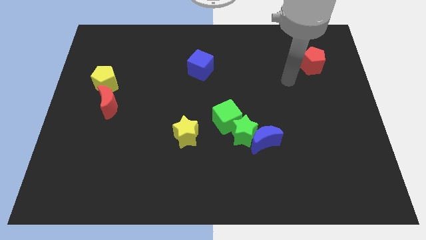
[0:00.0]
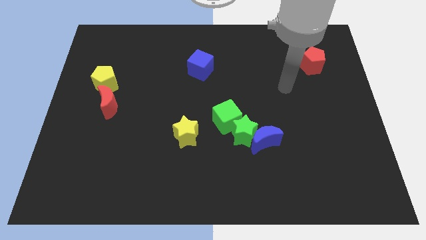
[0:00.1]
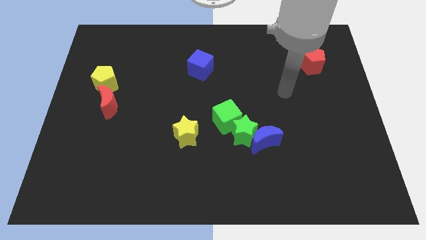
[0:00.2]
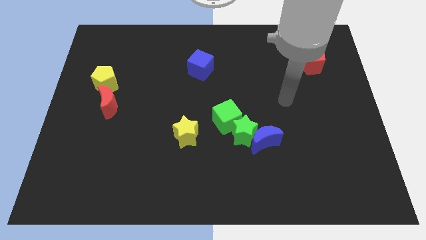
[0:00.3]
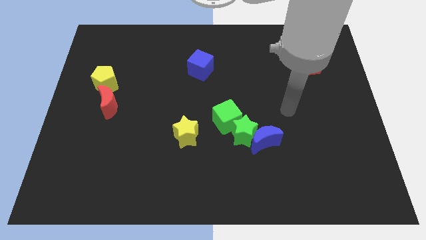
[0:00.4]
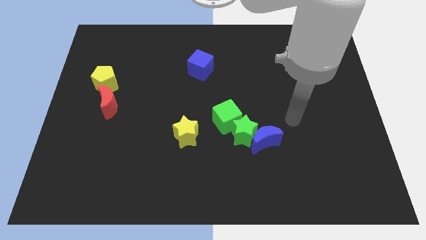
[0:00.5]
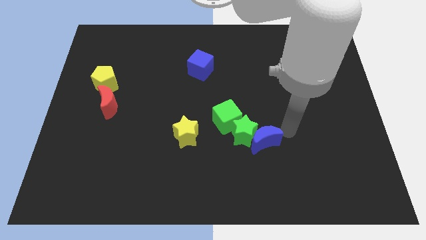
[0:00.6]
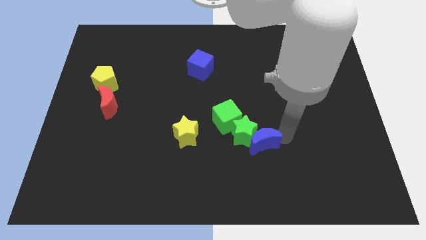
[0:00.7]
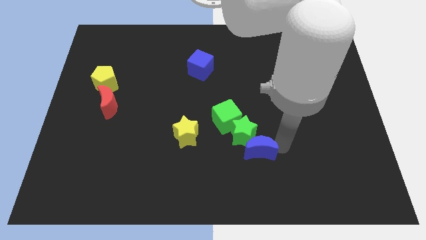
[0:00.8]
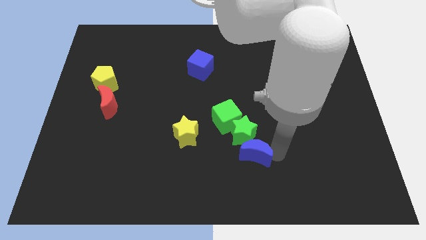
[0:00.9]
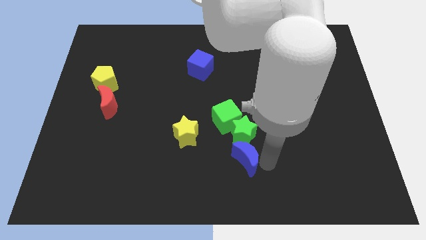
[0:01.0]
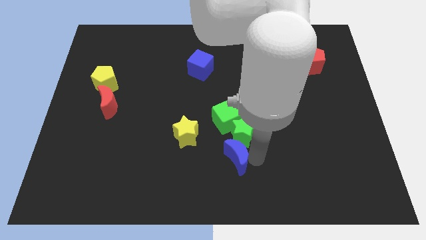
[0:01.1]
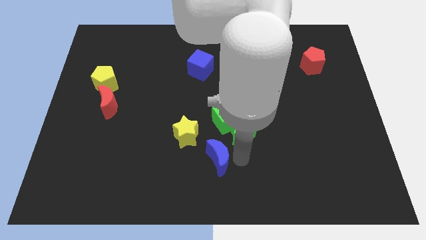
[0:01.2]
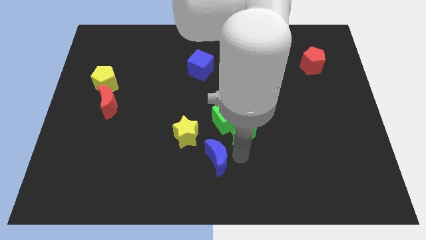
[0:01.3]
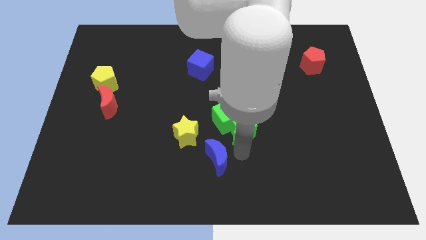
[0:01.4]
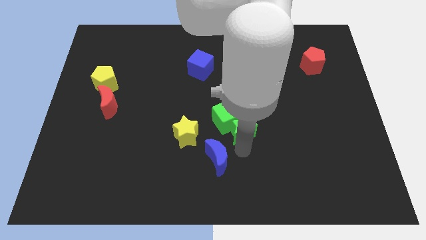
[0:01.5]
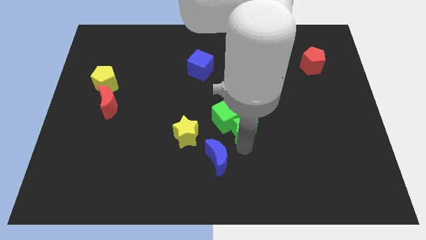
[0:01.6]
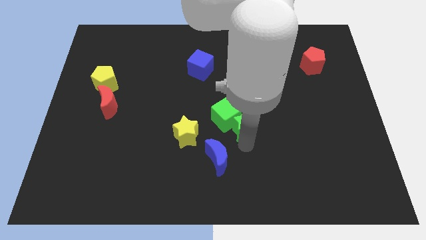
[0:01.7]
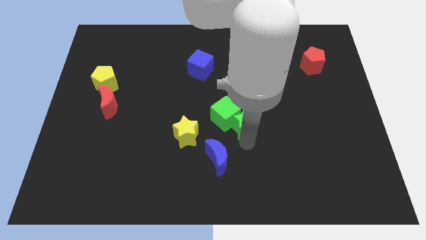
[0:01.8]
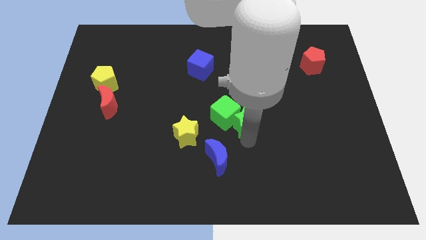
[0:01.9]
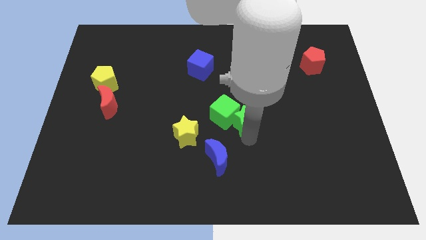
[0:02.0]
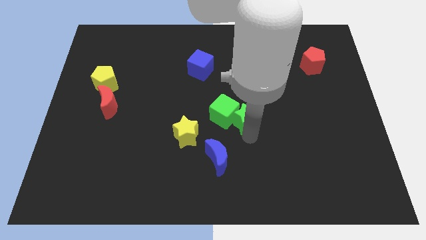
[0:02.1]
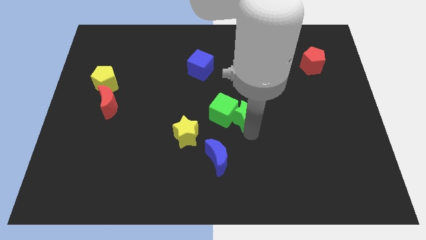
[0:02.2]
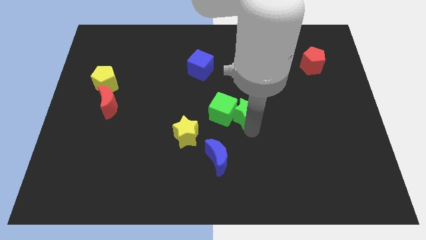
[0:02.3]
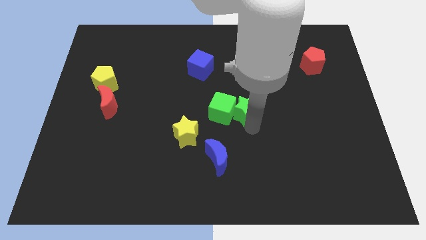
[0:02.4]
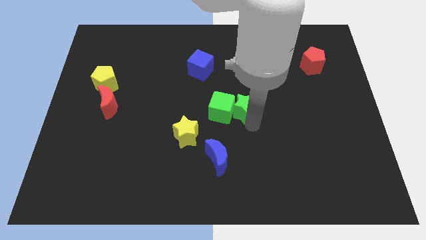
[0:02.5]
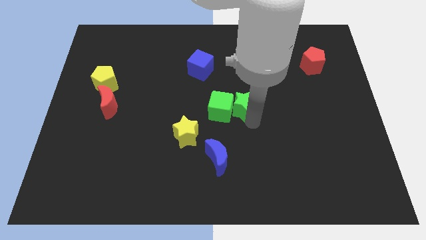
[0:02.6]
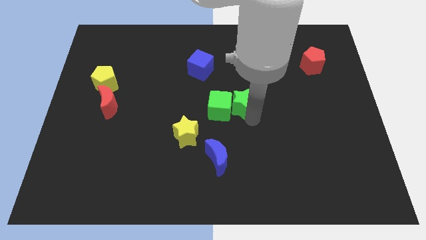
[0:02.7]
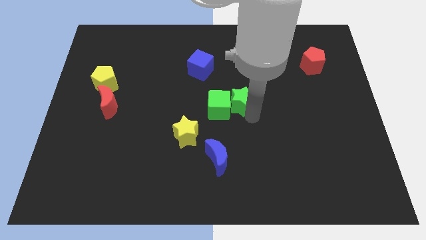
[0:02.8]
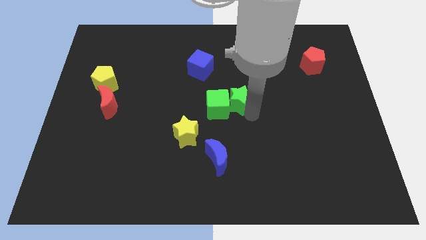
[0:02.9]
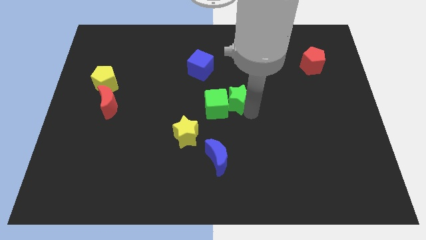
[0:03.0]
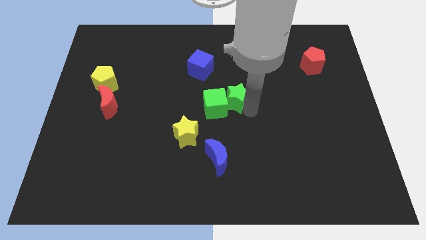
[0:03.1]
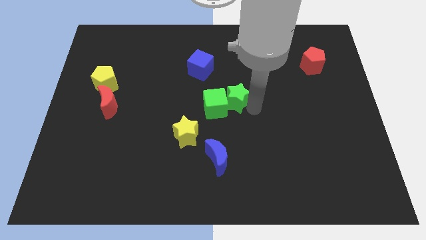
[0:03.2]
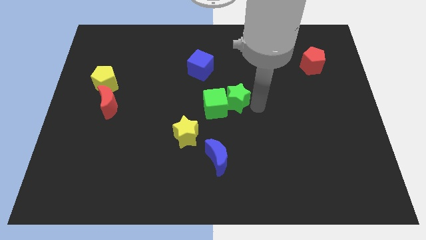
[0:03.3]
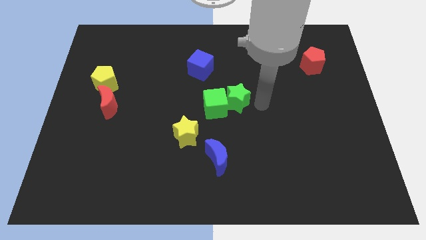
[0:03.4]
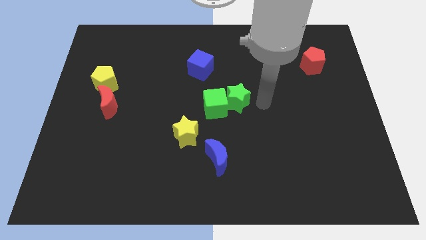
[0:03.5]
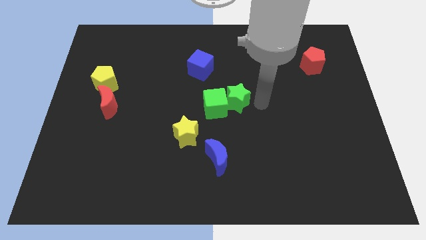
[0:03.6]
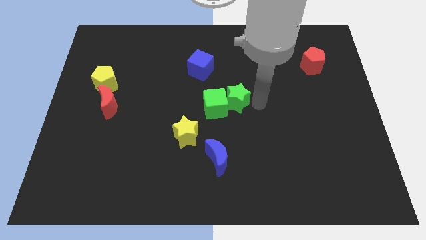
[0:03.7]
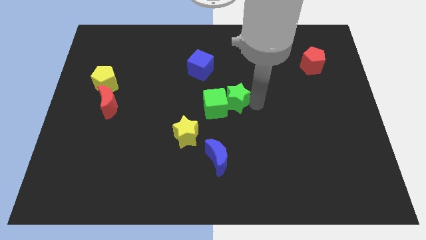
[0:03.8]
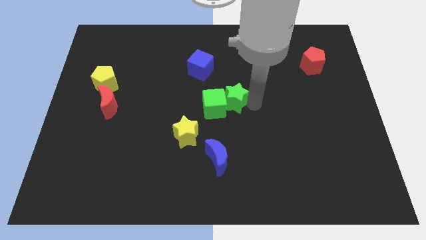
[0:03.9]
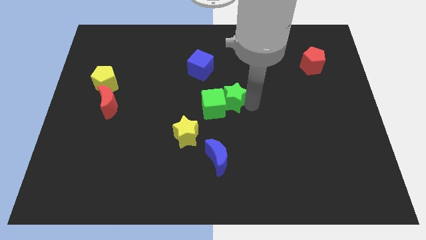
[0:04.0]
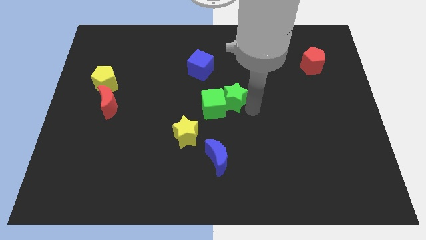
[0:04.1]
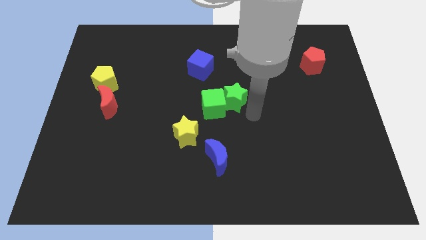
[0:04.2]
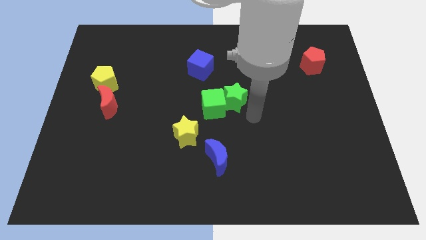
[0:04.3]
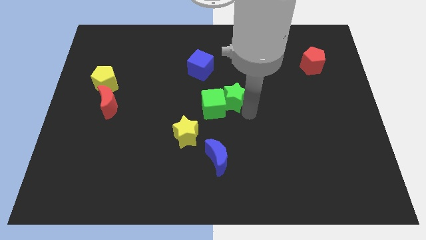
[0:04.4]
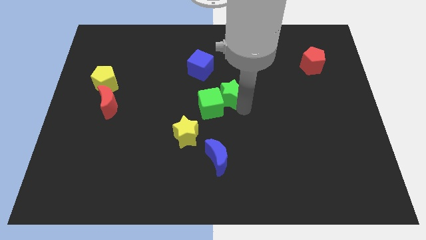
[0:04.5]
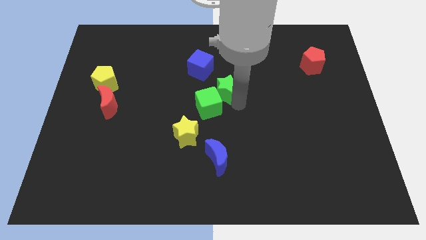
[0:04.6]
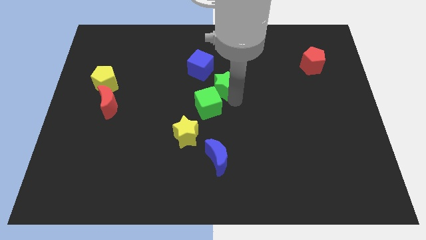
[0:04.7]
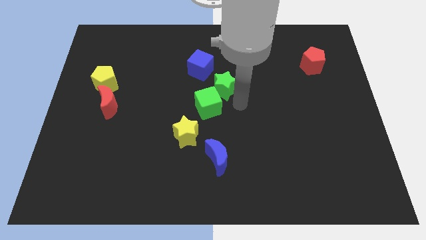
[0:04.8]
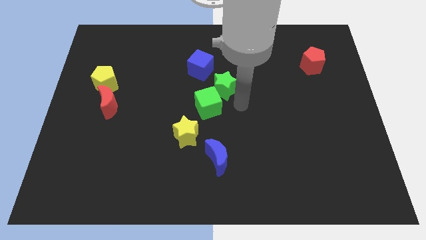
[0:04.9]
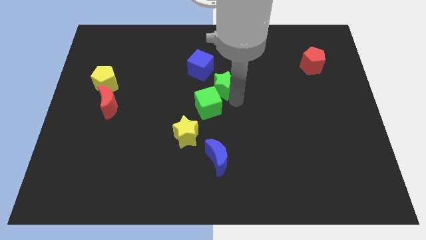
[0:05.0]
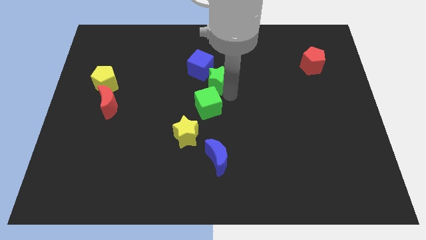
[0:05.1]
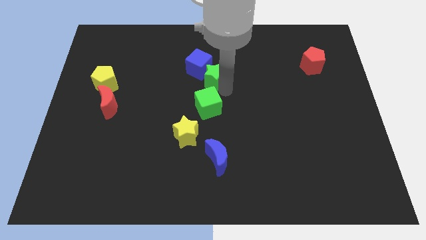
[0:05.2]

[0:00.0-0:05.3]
put the green star towards the blue cube

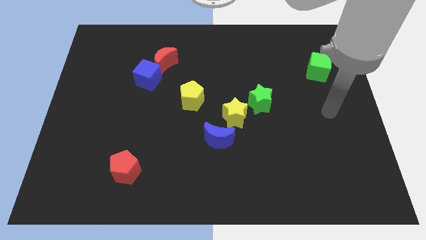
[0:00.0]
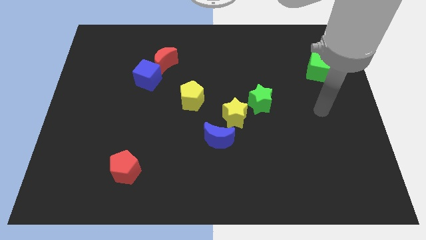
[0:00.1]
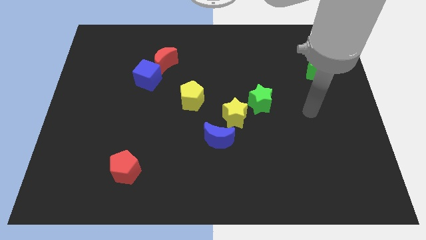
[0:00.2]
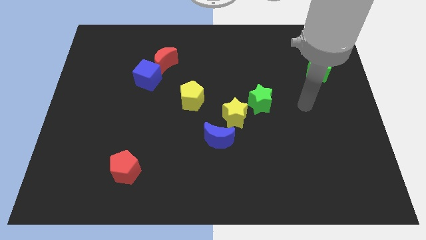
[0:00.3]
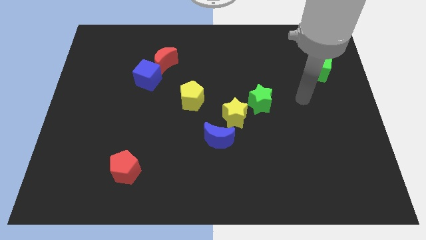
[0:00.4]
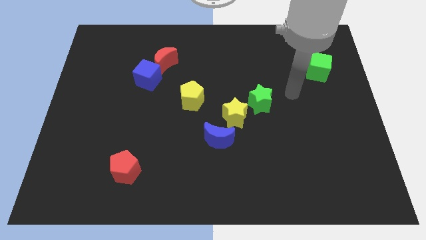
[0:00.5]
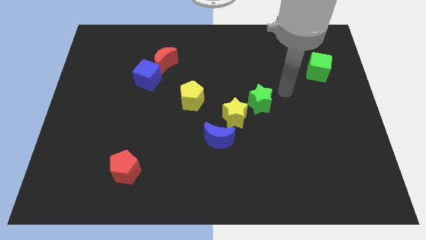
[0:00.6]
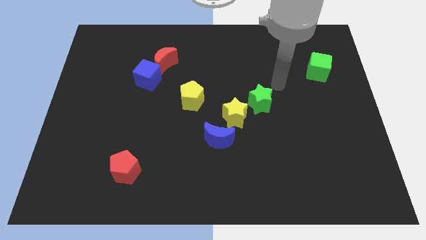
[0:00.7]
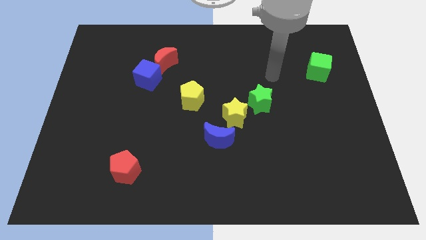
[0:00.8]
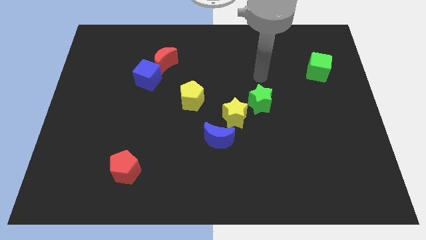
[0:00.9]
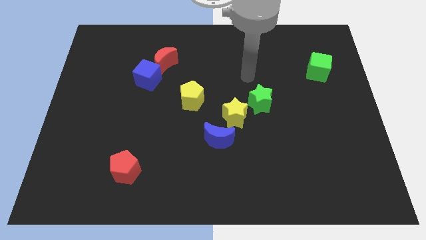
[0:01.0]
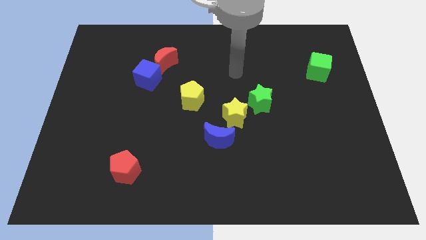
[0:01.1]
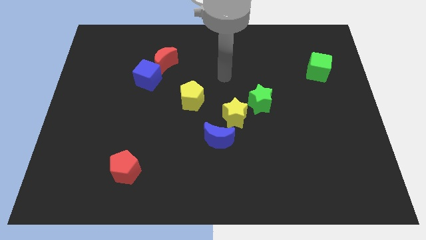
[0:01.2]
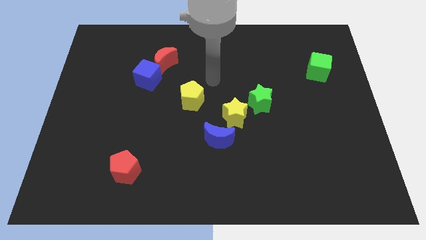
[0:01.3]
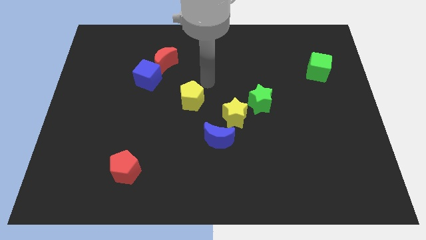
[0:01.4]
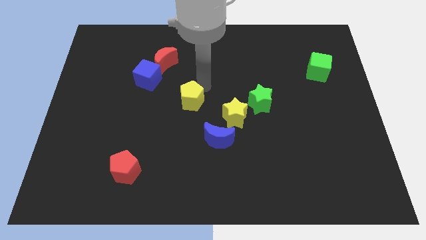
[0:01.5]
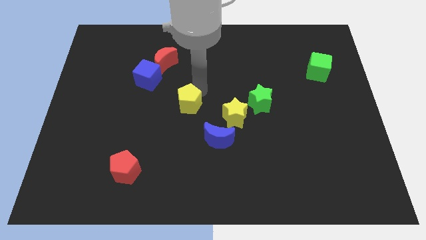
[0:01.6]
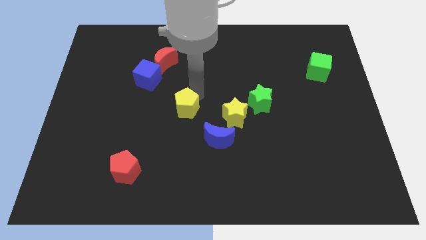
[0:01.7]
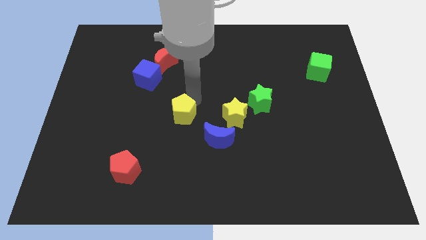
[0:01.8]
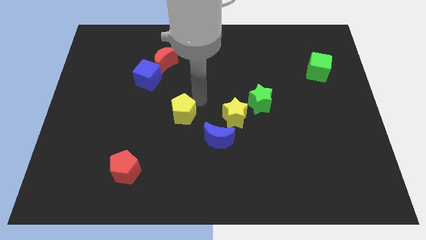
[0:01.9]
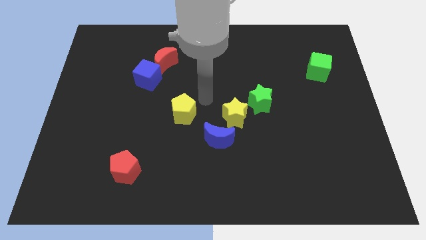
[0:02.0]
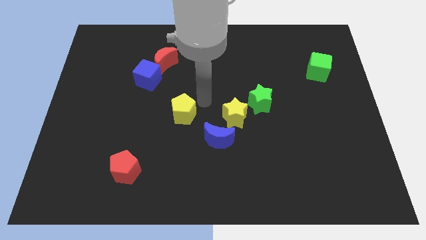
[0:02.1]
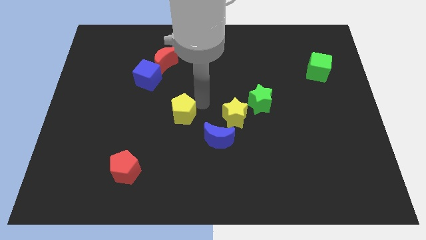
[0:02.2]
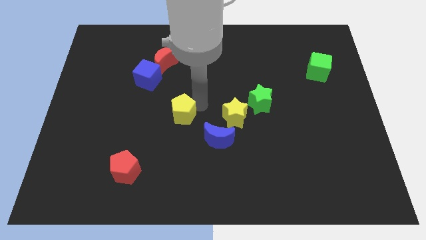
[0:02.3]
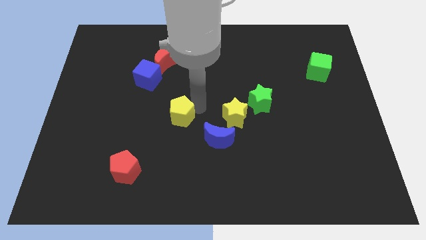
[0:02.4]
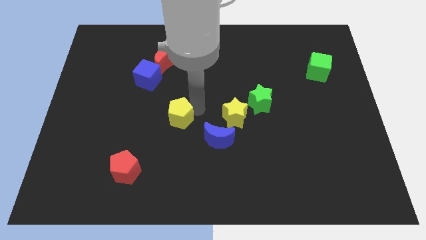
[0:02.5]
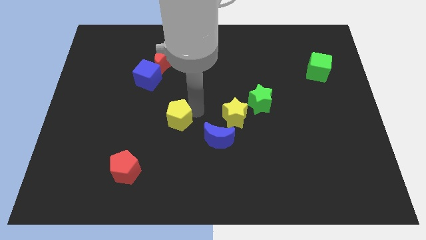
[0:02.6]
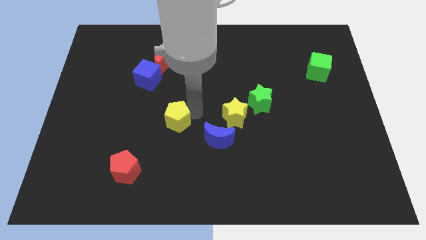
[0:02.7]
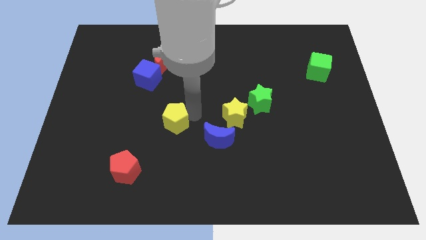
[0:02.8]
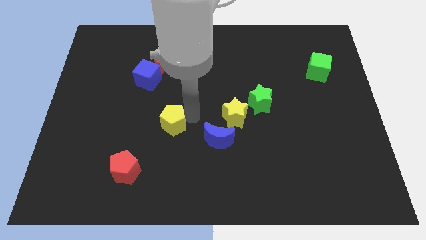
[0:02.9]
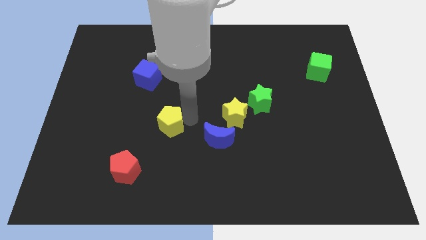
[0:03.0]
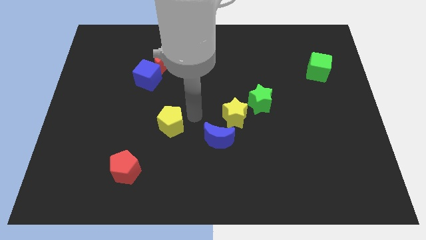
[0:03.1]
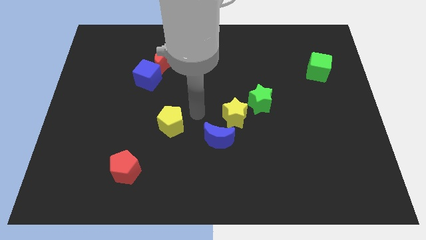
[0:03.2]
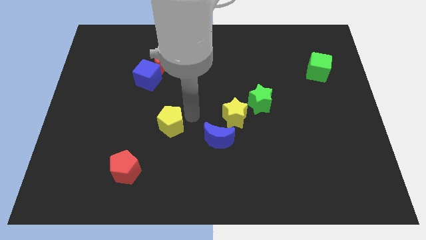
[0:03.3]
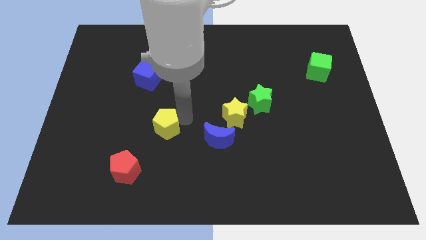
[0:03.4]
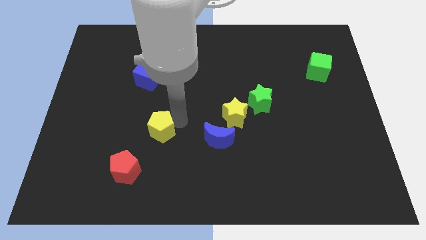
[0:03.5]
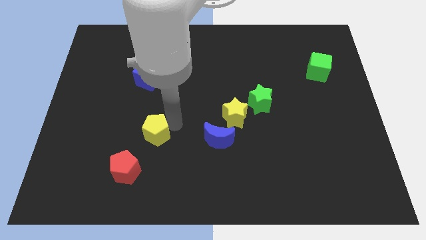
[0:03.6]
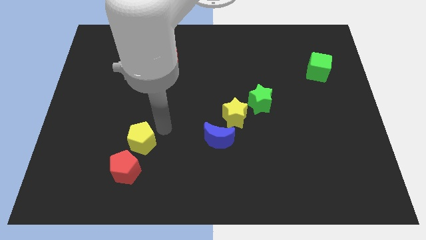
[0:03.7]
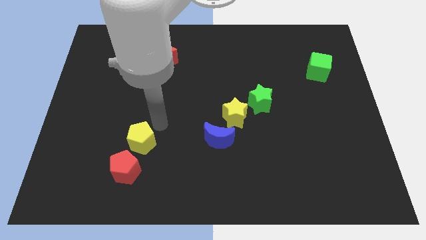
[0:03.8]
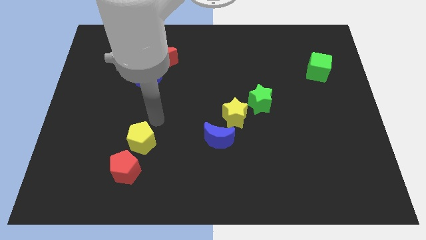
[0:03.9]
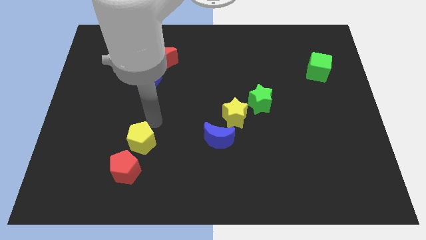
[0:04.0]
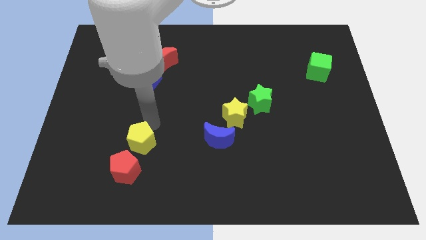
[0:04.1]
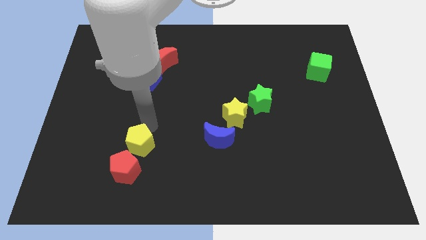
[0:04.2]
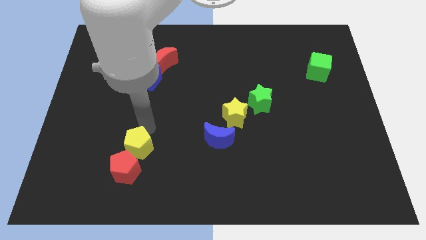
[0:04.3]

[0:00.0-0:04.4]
push the yellow pentagon to the red pentagon
